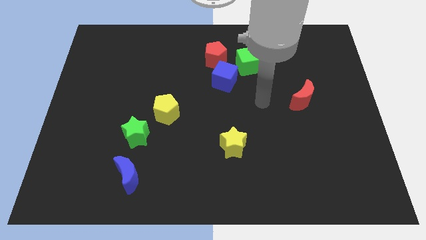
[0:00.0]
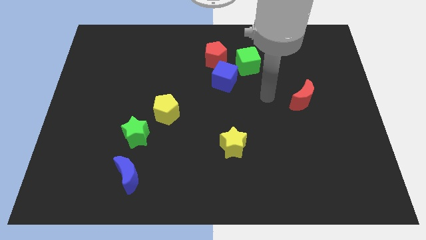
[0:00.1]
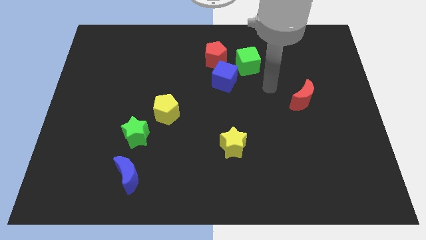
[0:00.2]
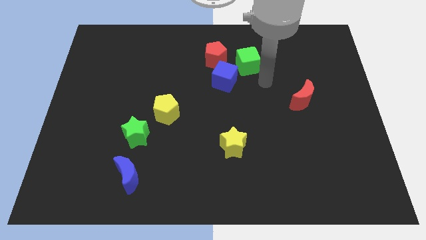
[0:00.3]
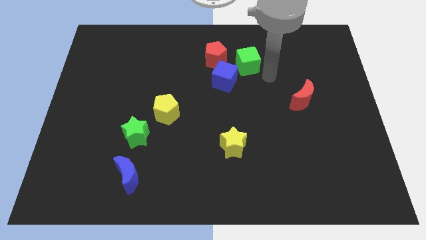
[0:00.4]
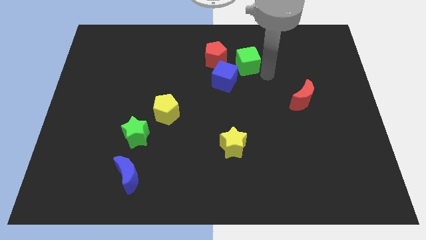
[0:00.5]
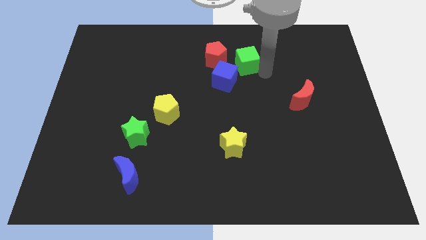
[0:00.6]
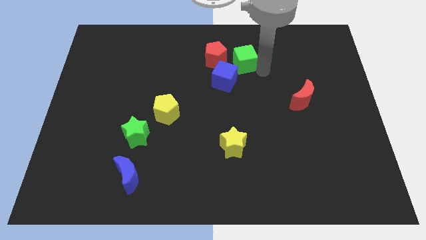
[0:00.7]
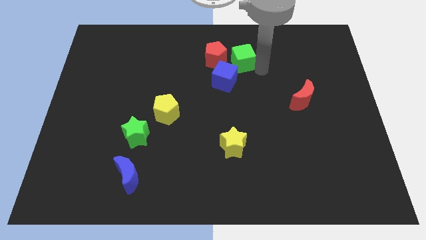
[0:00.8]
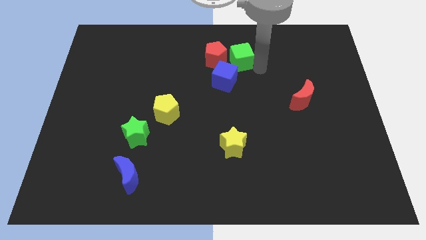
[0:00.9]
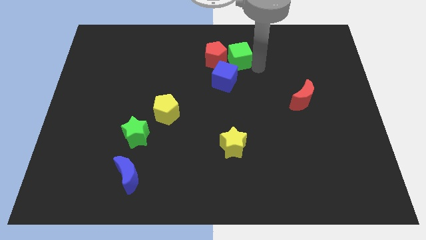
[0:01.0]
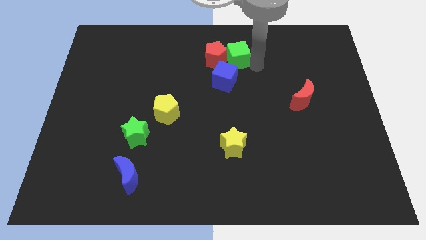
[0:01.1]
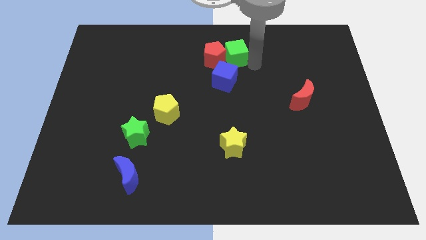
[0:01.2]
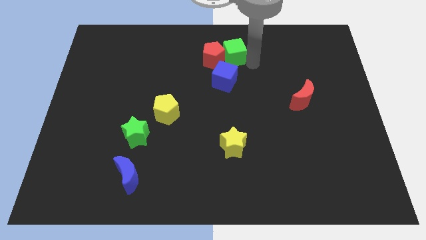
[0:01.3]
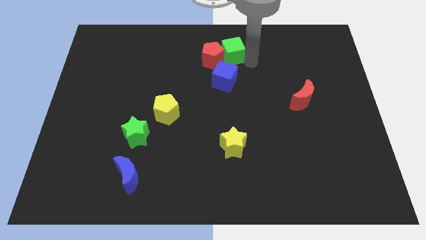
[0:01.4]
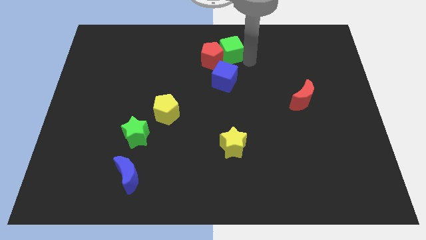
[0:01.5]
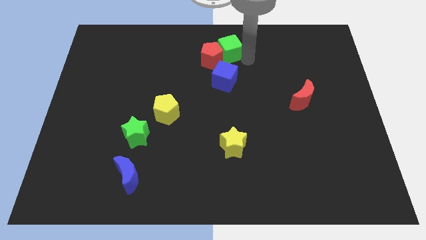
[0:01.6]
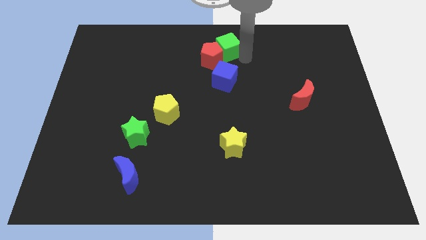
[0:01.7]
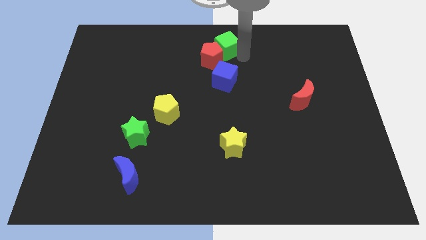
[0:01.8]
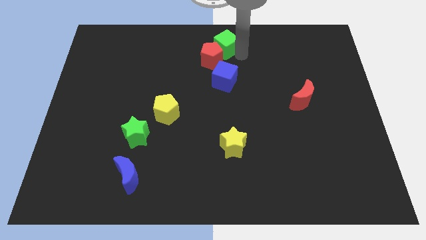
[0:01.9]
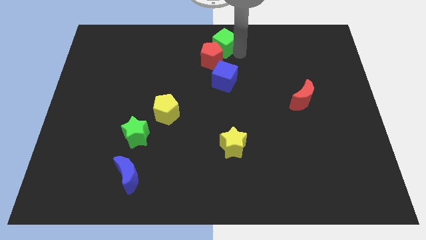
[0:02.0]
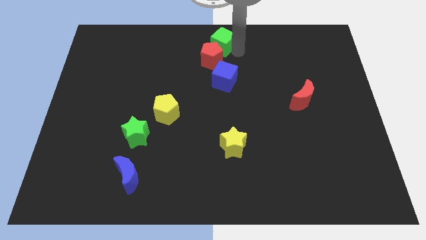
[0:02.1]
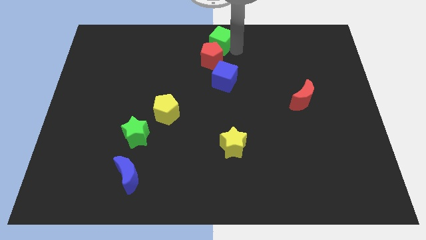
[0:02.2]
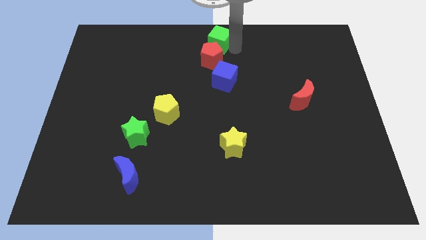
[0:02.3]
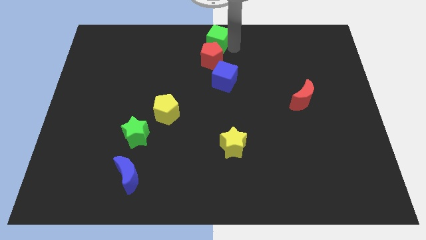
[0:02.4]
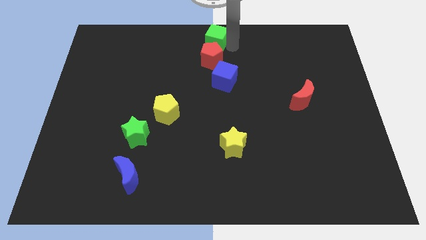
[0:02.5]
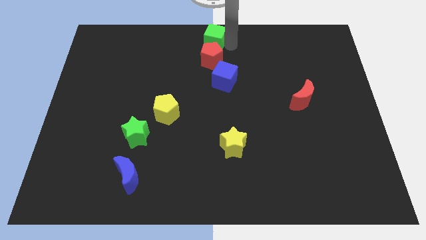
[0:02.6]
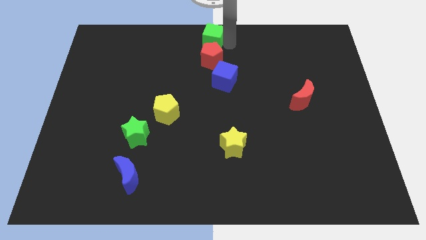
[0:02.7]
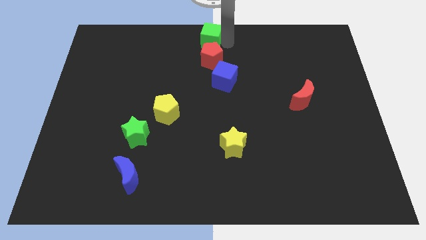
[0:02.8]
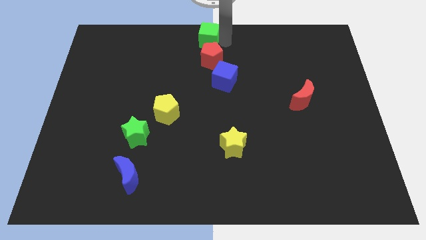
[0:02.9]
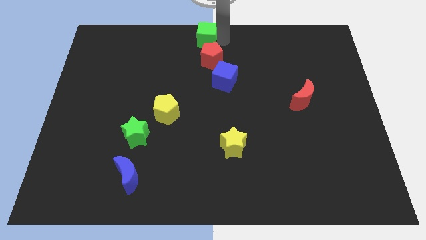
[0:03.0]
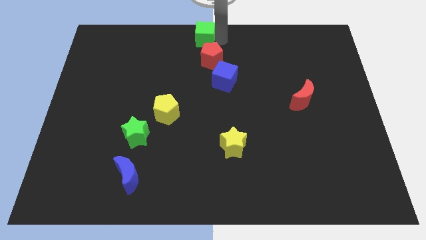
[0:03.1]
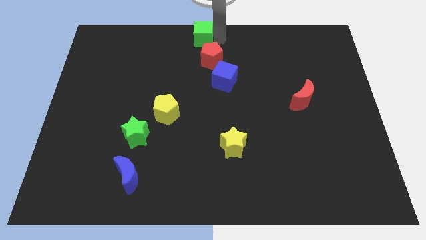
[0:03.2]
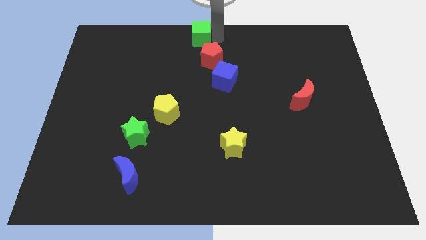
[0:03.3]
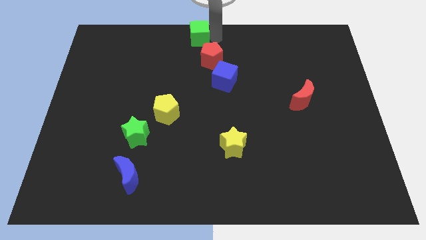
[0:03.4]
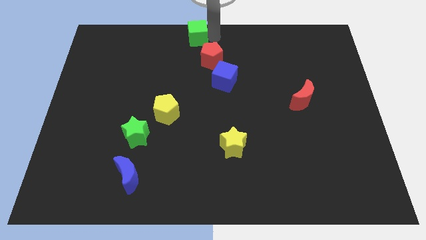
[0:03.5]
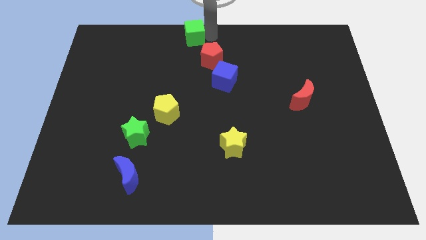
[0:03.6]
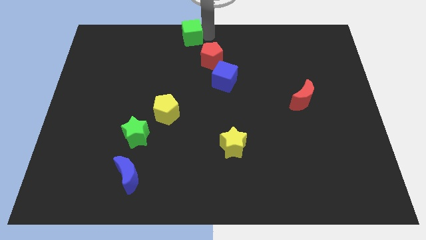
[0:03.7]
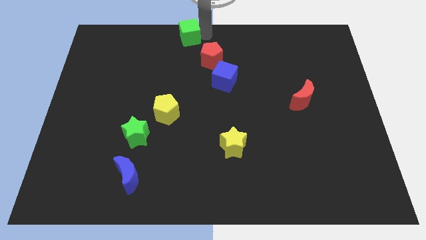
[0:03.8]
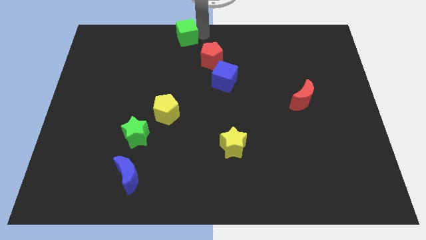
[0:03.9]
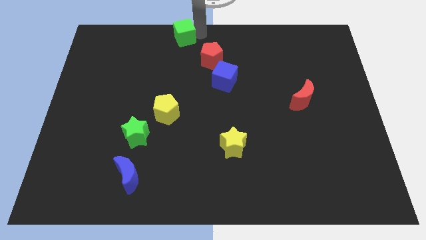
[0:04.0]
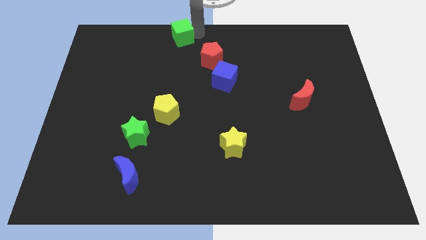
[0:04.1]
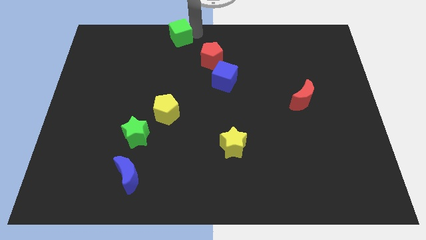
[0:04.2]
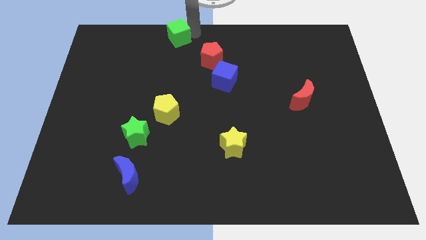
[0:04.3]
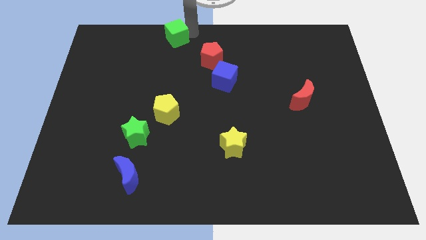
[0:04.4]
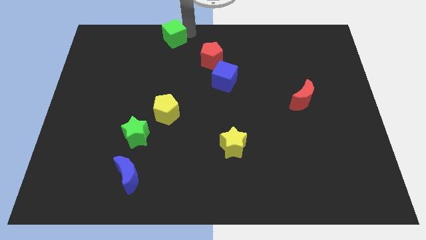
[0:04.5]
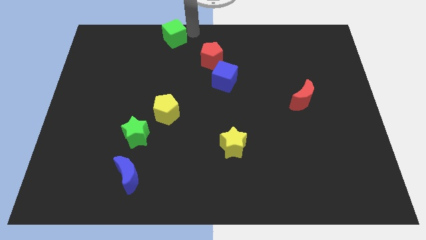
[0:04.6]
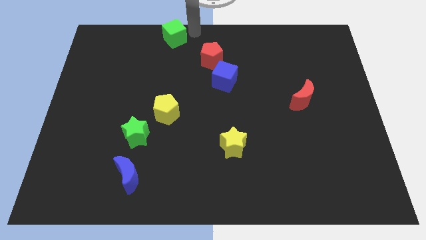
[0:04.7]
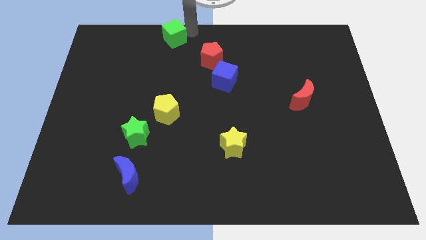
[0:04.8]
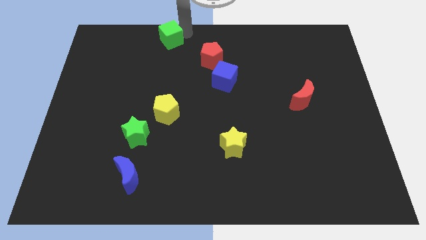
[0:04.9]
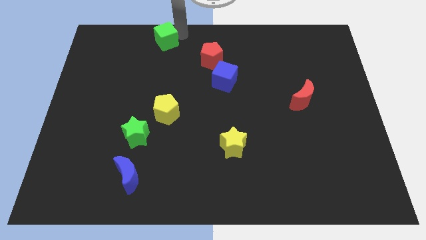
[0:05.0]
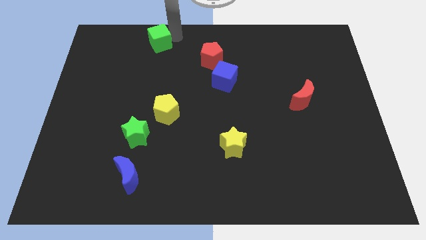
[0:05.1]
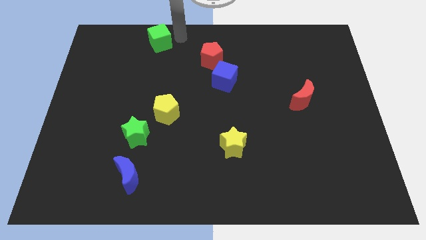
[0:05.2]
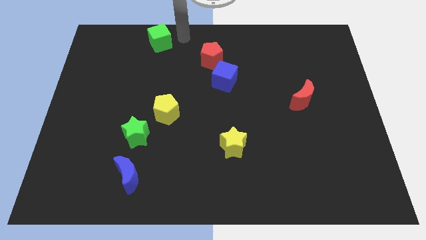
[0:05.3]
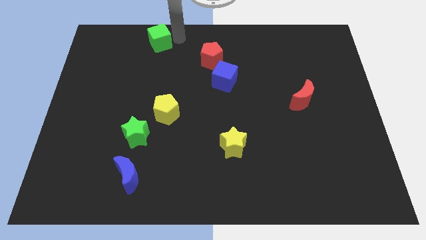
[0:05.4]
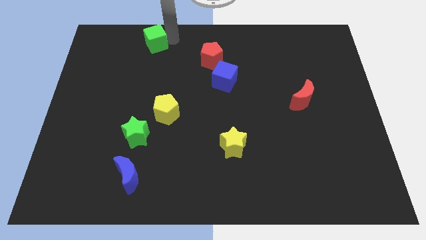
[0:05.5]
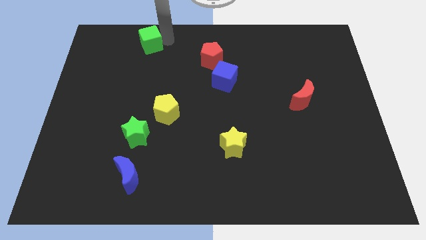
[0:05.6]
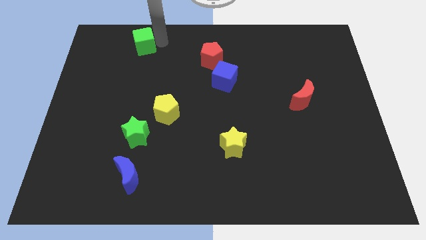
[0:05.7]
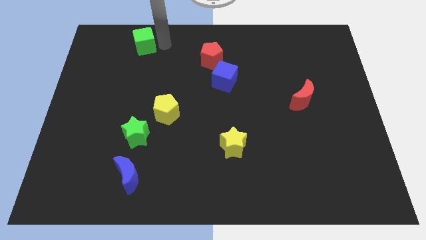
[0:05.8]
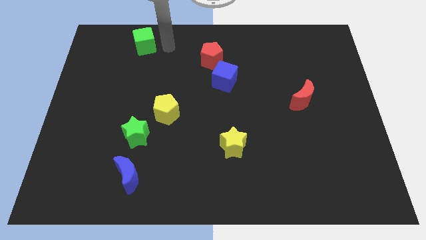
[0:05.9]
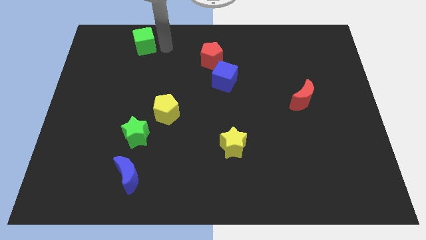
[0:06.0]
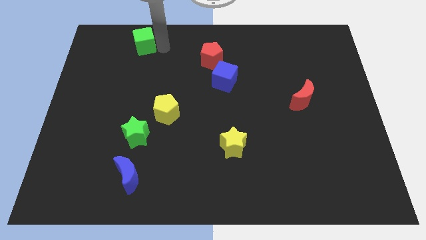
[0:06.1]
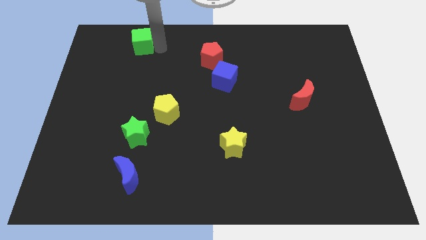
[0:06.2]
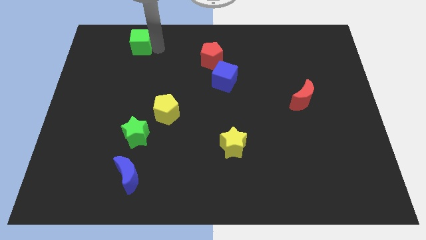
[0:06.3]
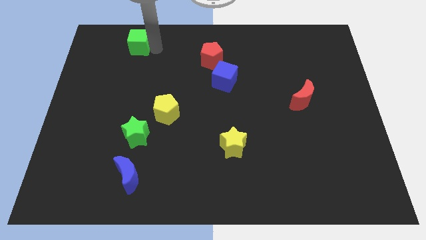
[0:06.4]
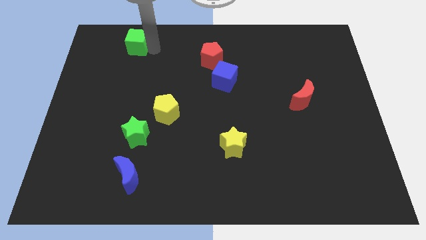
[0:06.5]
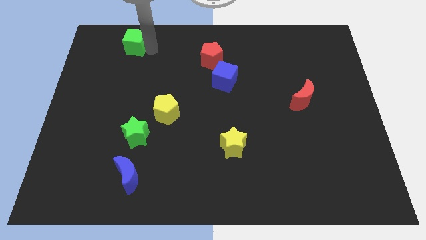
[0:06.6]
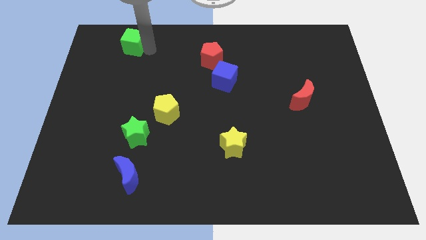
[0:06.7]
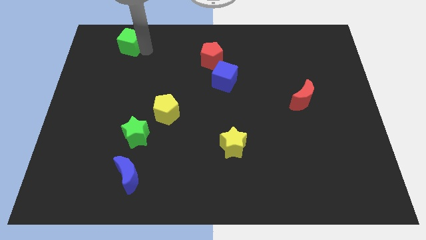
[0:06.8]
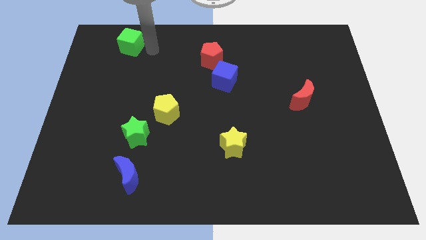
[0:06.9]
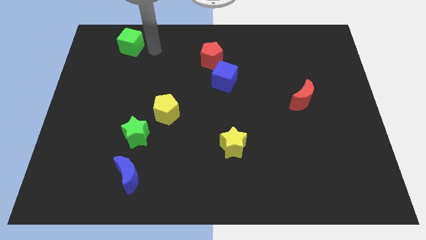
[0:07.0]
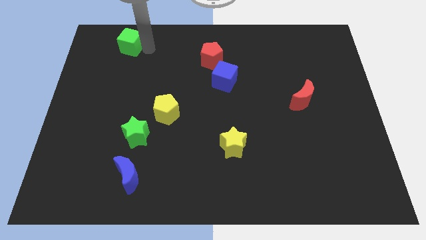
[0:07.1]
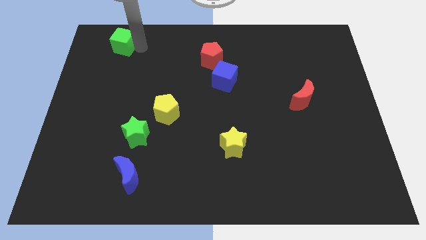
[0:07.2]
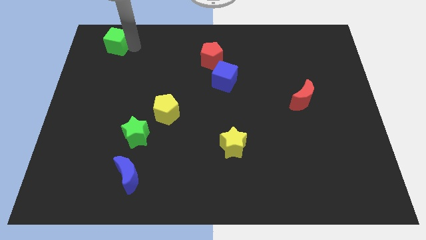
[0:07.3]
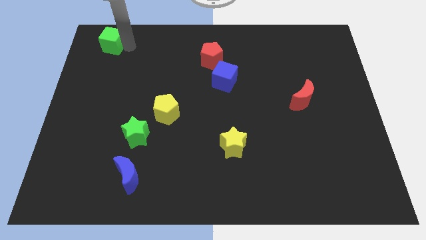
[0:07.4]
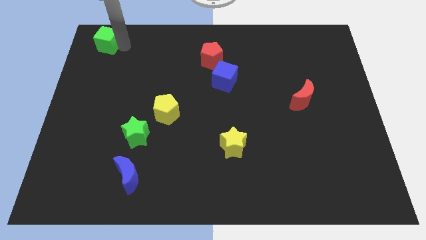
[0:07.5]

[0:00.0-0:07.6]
put the green cube to the top left
